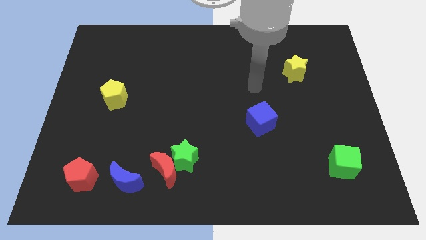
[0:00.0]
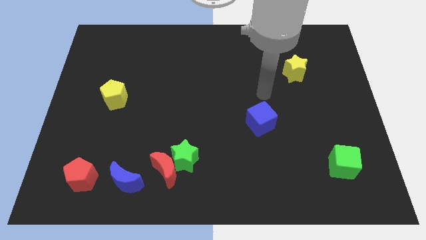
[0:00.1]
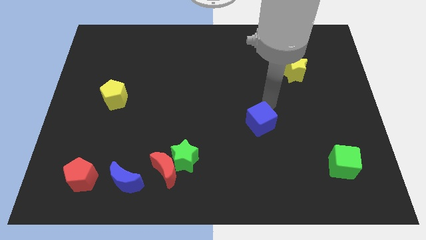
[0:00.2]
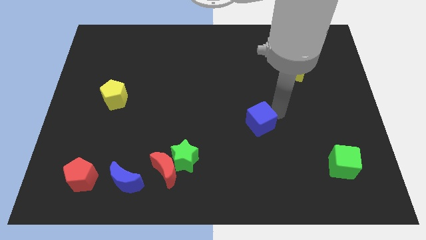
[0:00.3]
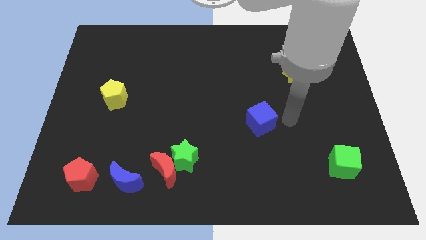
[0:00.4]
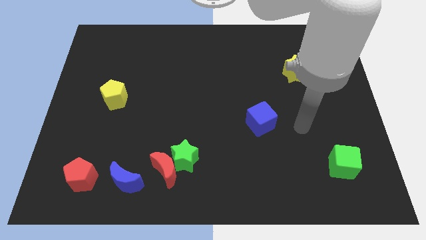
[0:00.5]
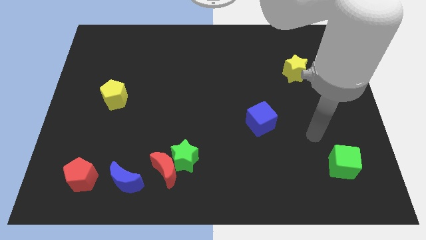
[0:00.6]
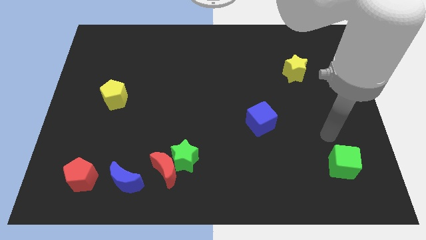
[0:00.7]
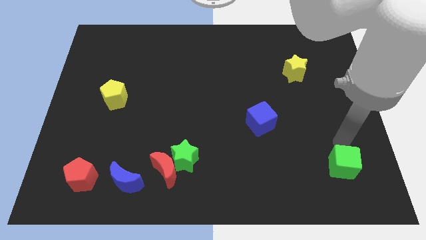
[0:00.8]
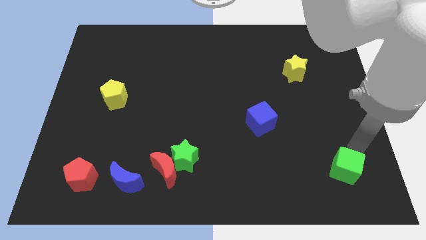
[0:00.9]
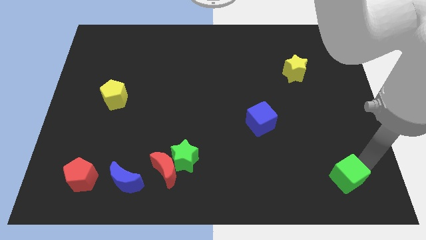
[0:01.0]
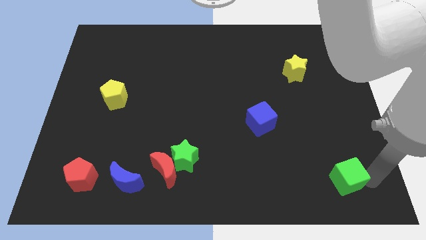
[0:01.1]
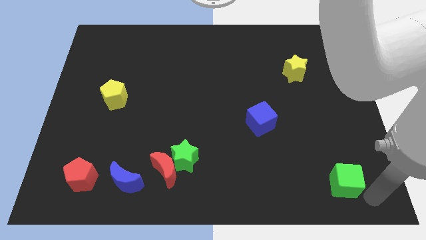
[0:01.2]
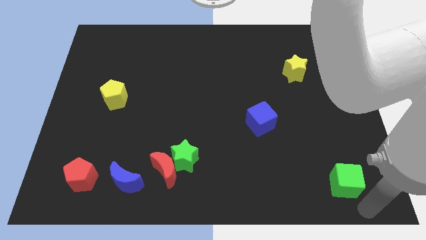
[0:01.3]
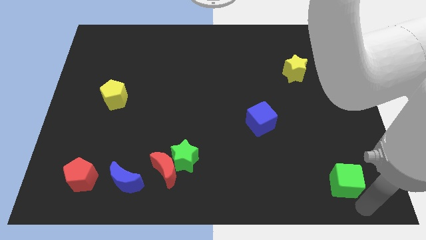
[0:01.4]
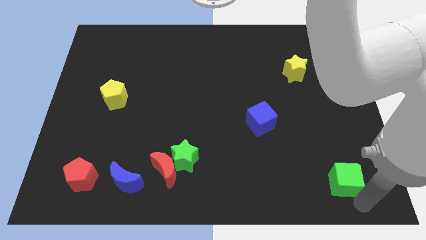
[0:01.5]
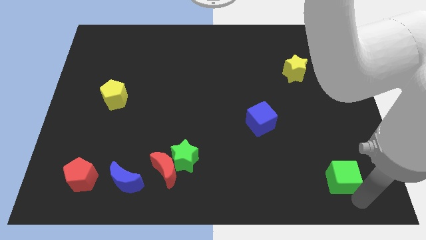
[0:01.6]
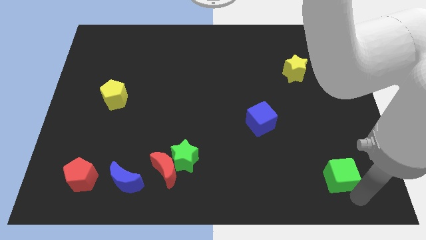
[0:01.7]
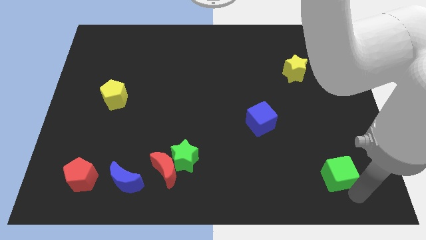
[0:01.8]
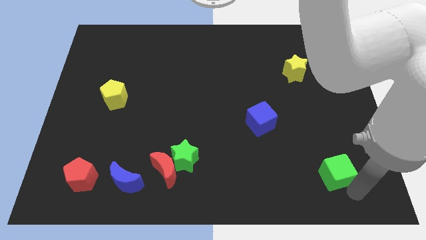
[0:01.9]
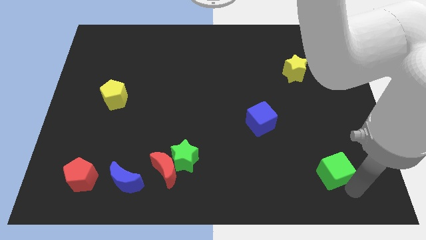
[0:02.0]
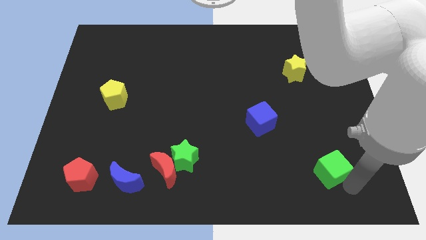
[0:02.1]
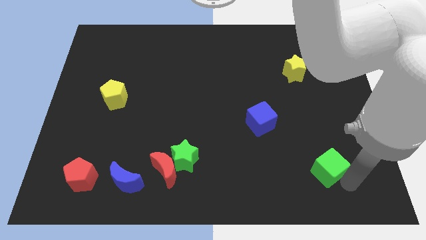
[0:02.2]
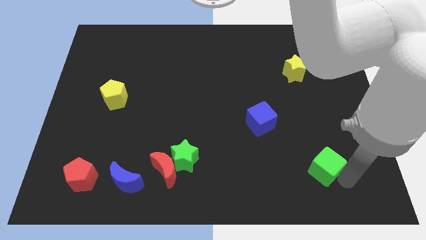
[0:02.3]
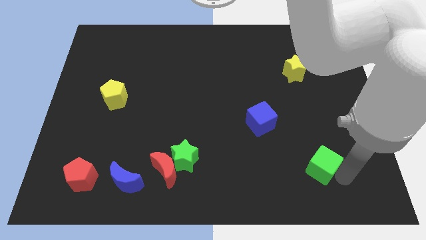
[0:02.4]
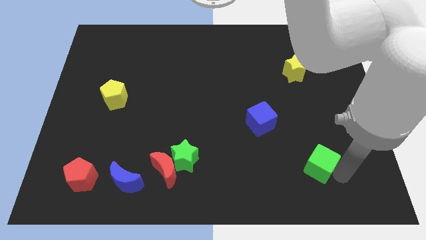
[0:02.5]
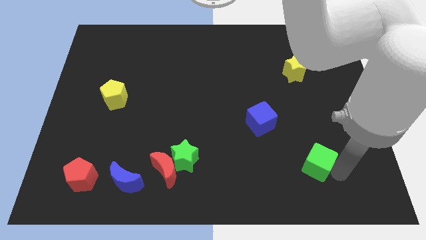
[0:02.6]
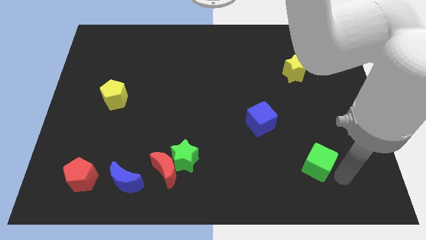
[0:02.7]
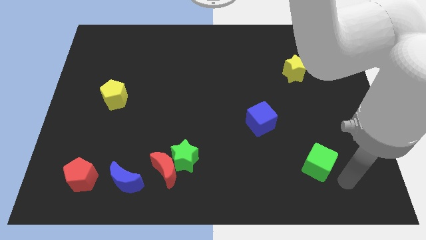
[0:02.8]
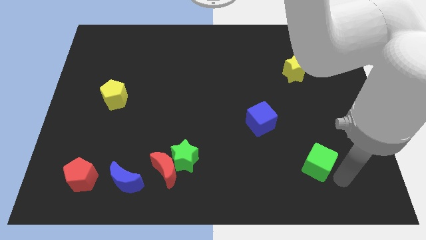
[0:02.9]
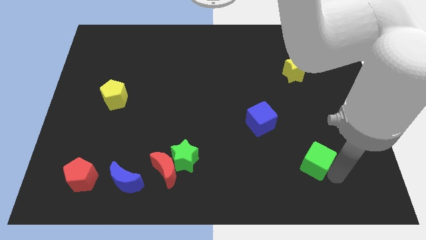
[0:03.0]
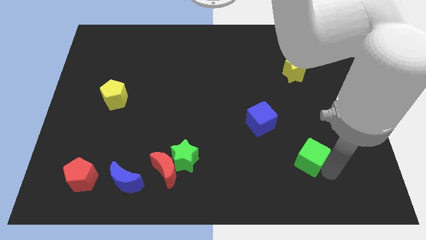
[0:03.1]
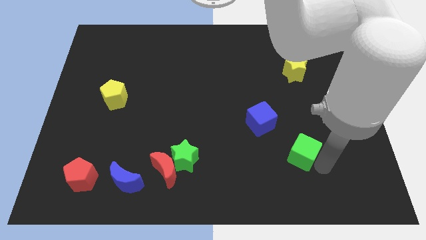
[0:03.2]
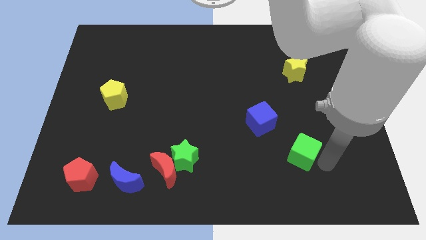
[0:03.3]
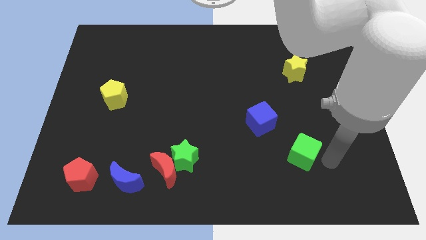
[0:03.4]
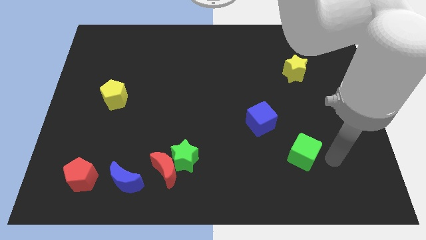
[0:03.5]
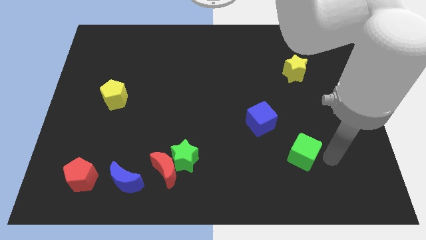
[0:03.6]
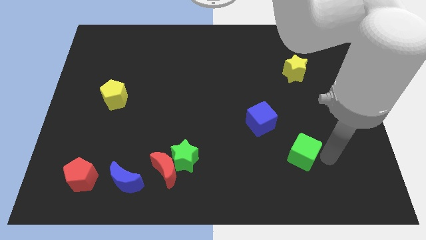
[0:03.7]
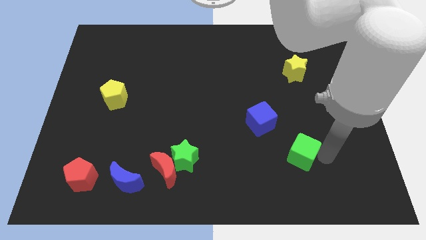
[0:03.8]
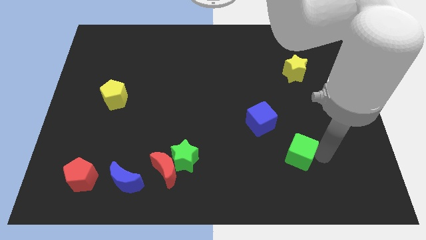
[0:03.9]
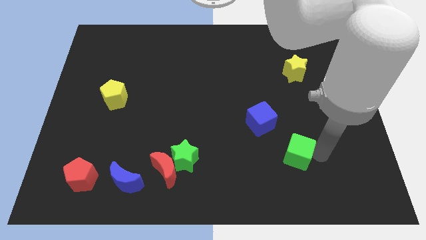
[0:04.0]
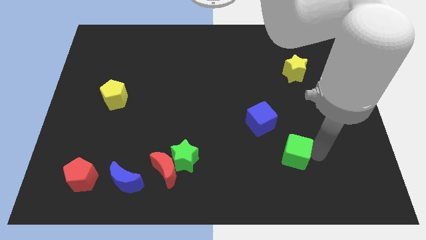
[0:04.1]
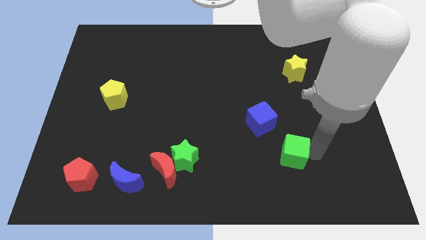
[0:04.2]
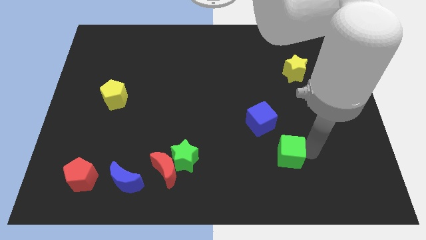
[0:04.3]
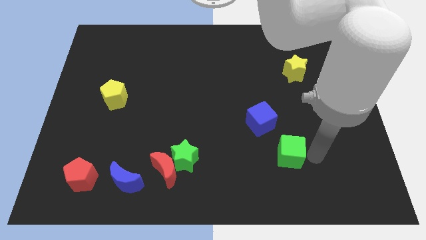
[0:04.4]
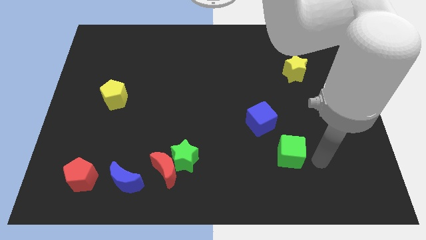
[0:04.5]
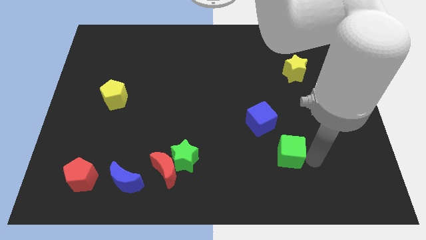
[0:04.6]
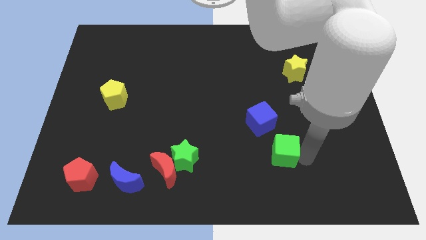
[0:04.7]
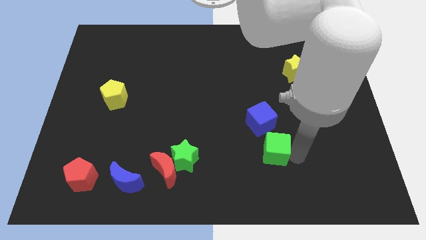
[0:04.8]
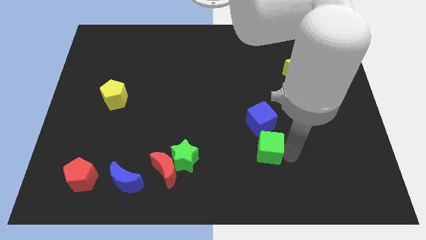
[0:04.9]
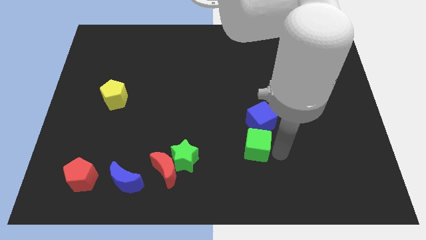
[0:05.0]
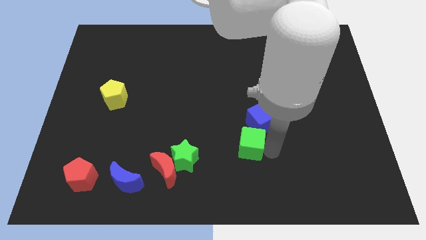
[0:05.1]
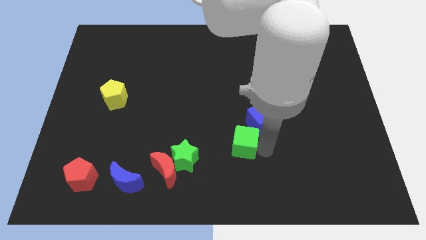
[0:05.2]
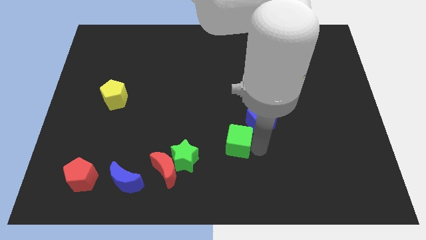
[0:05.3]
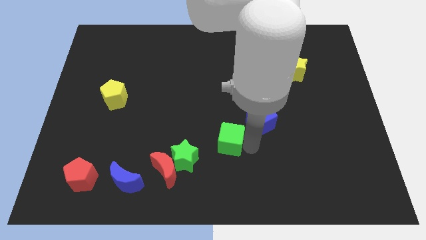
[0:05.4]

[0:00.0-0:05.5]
push the green cube to the top right side of the green star

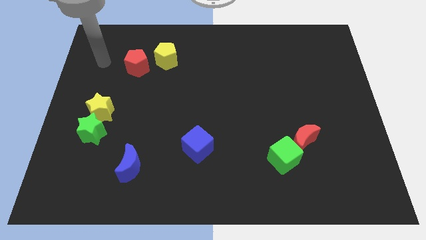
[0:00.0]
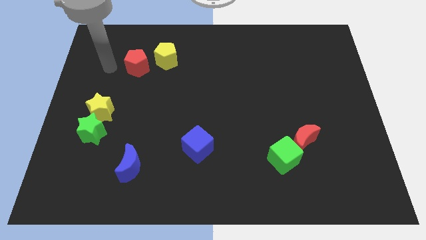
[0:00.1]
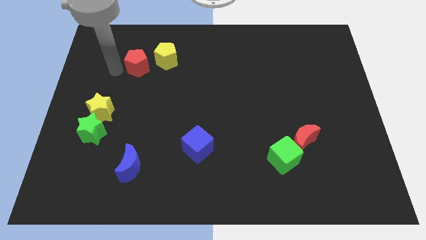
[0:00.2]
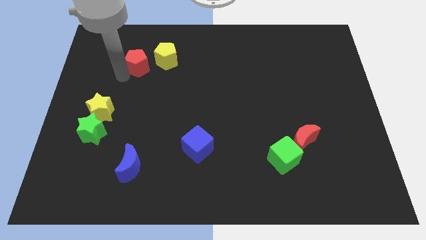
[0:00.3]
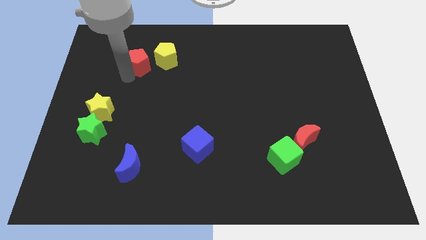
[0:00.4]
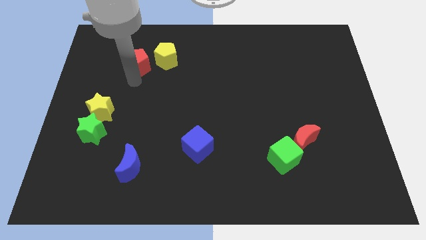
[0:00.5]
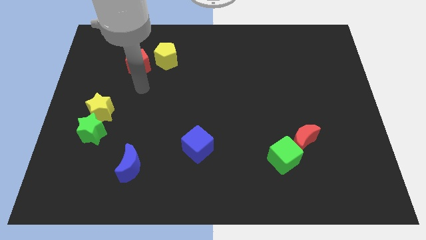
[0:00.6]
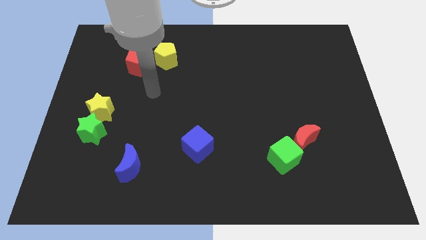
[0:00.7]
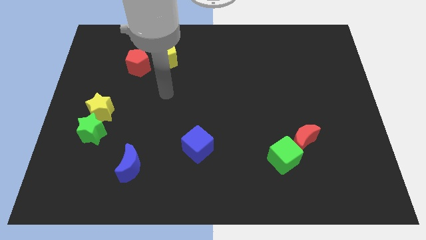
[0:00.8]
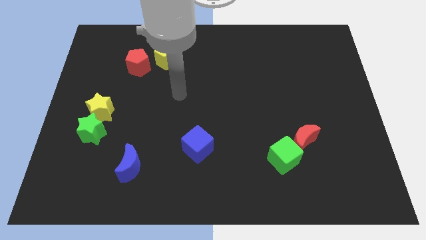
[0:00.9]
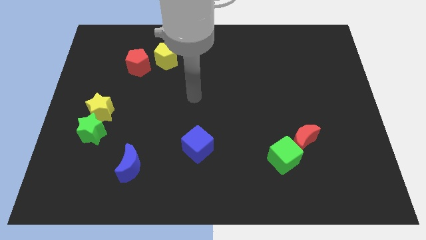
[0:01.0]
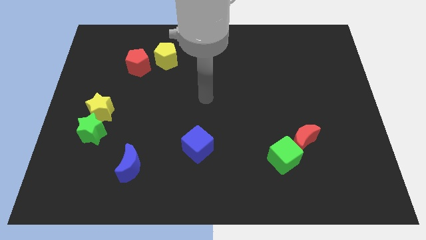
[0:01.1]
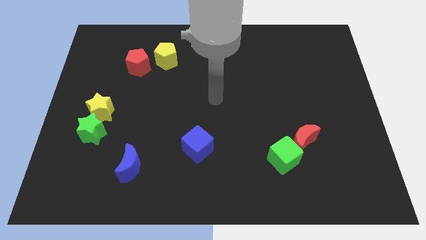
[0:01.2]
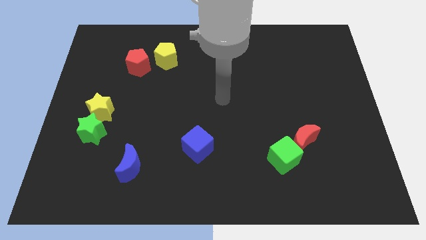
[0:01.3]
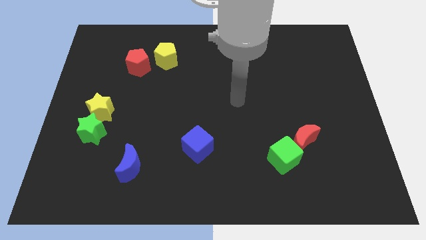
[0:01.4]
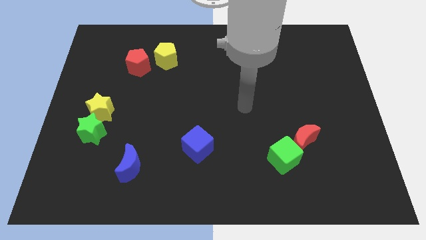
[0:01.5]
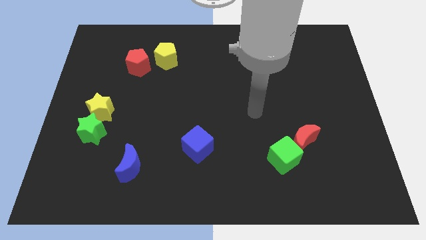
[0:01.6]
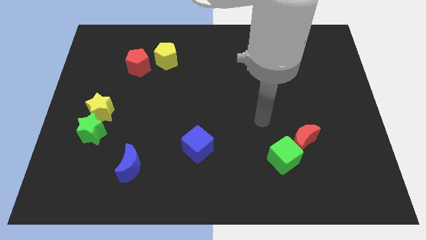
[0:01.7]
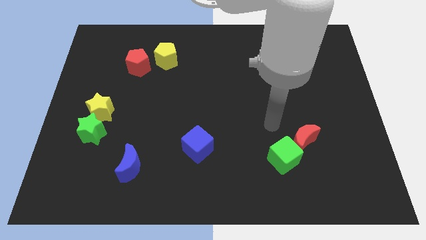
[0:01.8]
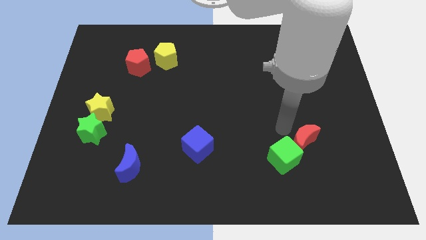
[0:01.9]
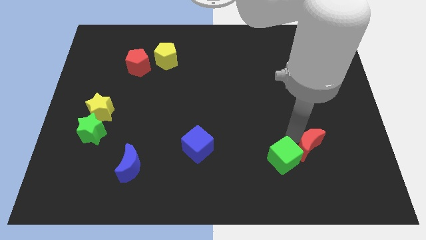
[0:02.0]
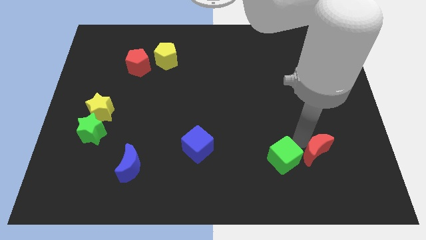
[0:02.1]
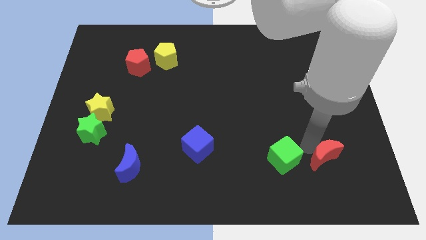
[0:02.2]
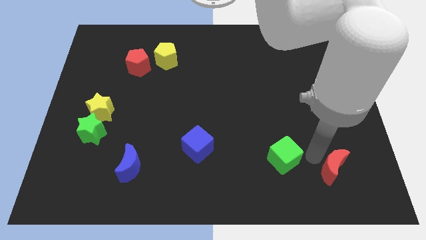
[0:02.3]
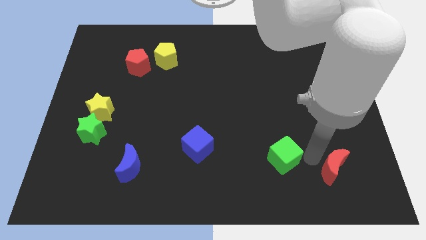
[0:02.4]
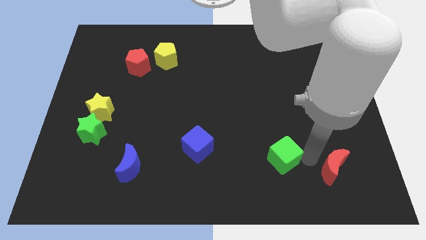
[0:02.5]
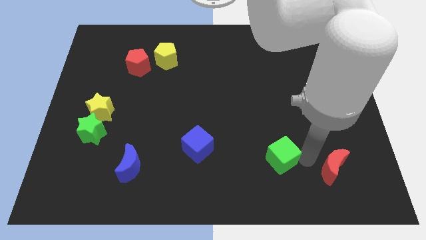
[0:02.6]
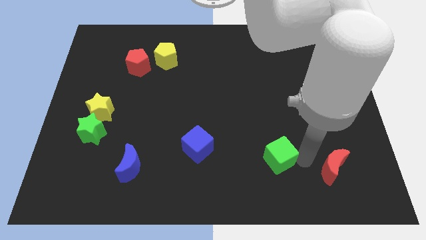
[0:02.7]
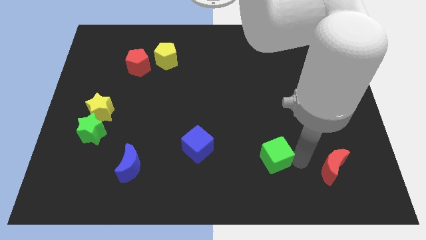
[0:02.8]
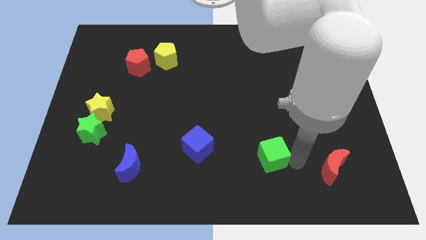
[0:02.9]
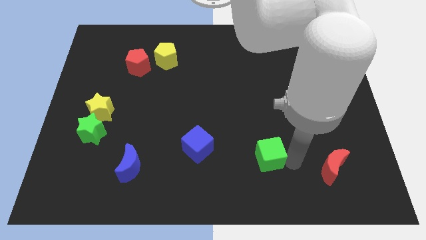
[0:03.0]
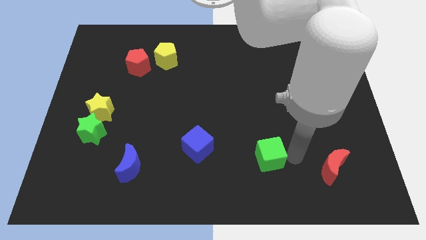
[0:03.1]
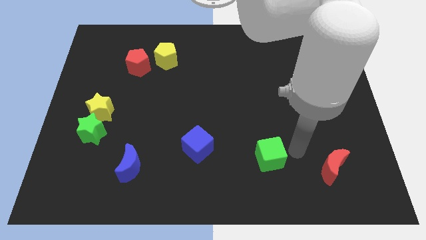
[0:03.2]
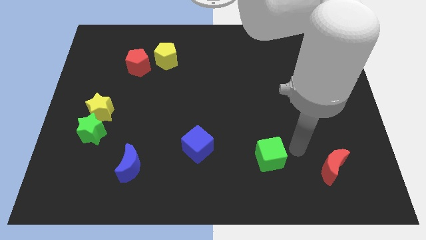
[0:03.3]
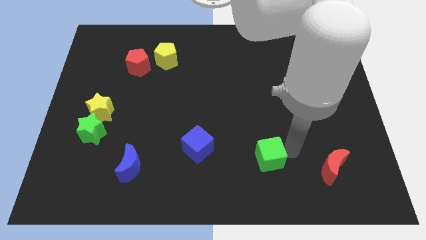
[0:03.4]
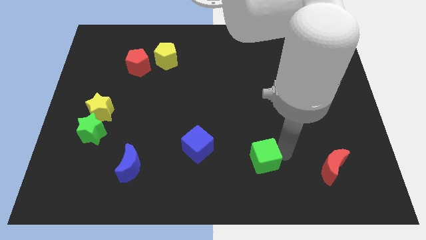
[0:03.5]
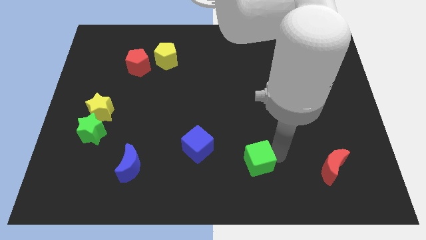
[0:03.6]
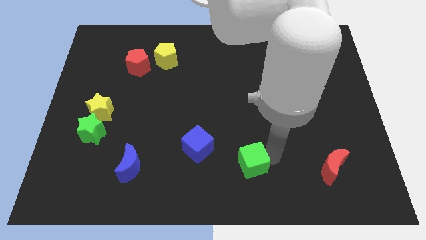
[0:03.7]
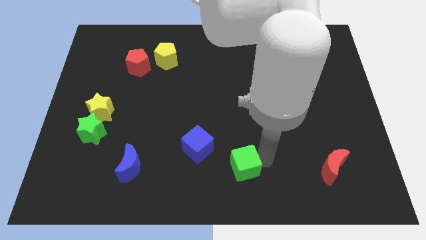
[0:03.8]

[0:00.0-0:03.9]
put the green cube diagonally down and to the right of the blue cube
